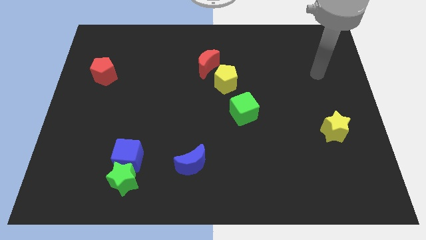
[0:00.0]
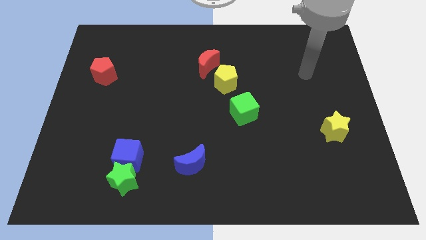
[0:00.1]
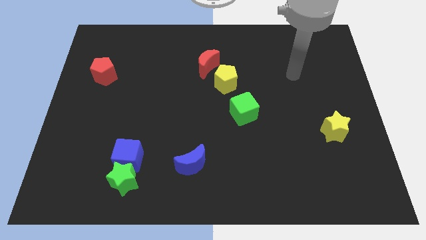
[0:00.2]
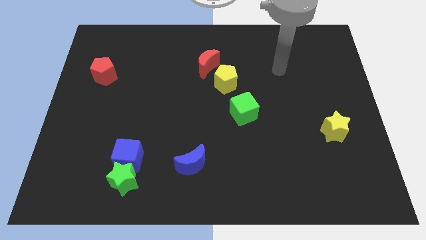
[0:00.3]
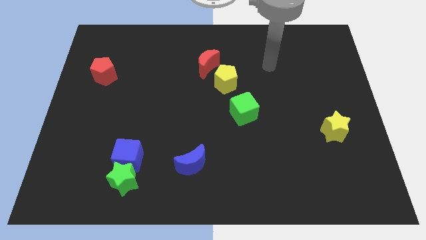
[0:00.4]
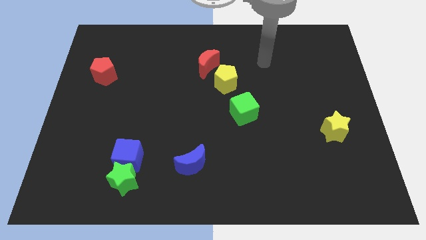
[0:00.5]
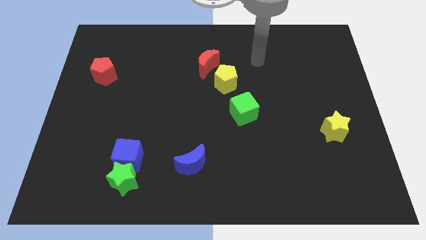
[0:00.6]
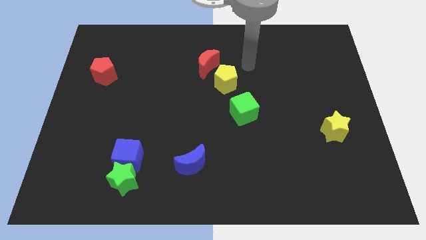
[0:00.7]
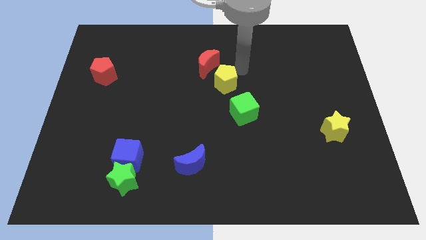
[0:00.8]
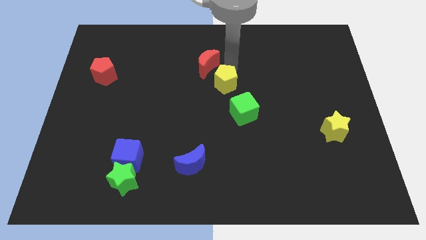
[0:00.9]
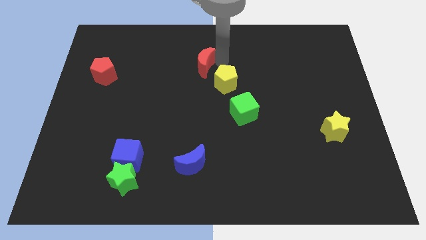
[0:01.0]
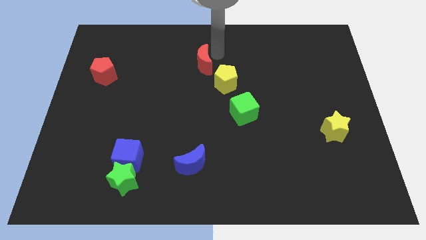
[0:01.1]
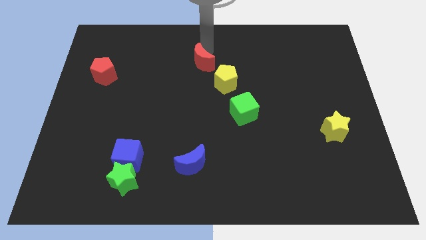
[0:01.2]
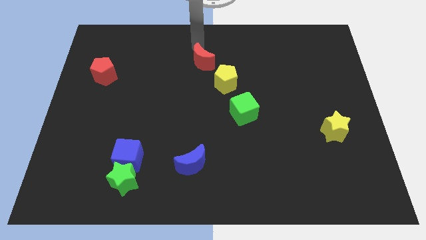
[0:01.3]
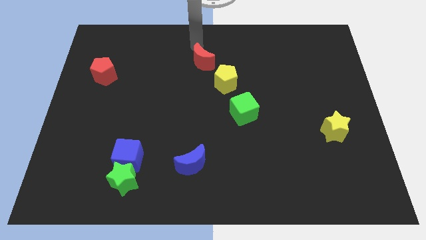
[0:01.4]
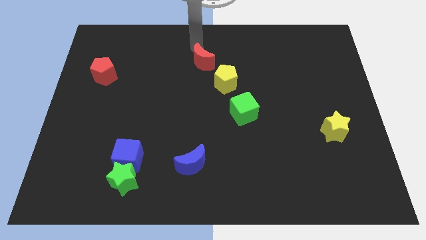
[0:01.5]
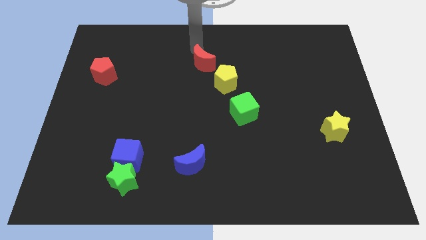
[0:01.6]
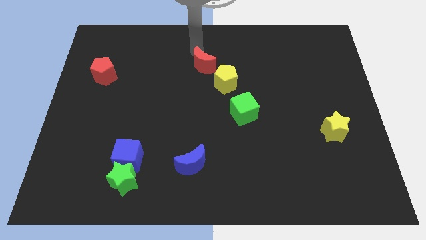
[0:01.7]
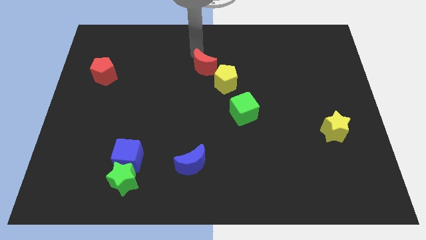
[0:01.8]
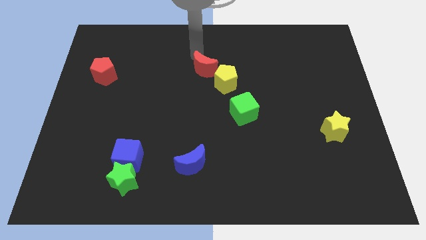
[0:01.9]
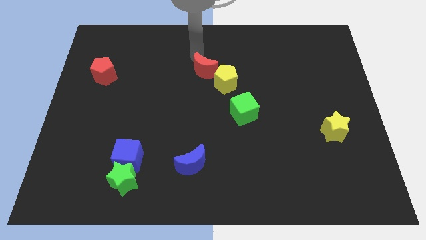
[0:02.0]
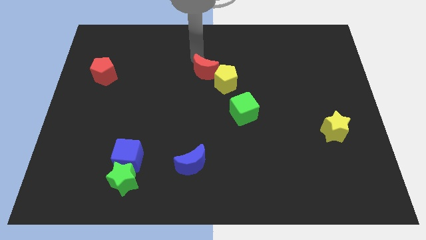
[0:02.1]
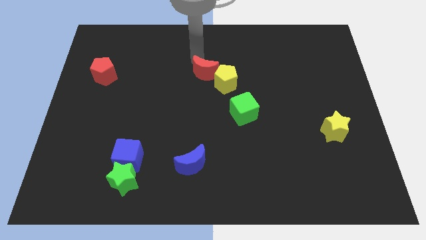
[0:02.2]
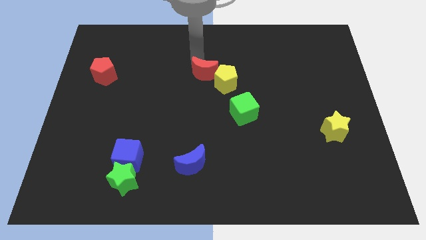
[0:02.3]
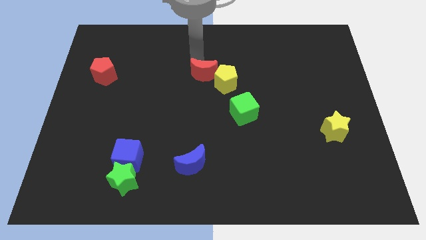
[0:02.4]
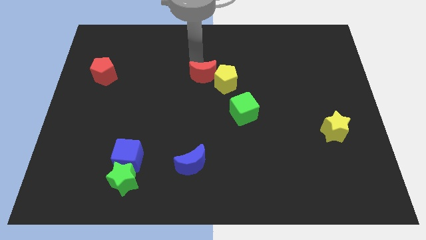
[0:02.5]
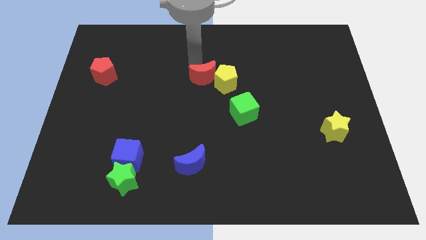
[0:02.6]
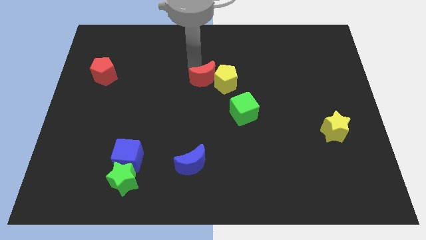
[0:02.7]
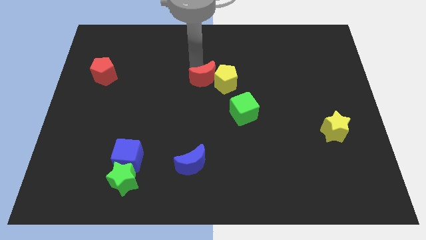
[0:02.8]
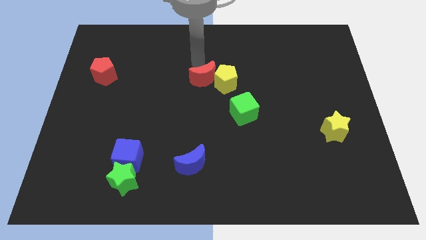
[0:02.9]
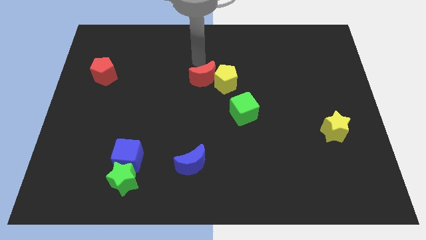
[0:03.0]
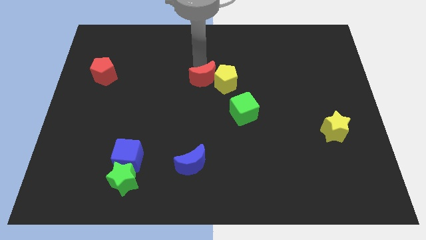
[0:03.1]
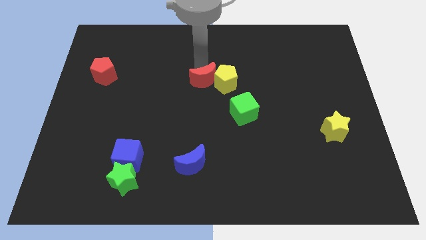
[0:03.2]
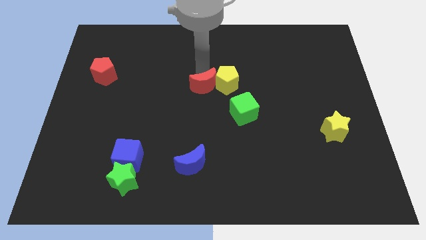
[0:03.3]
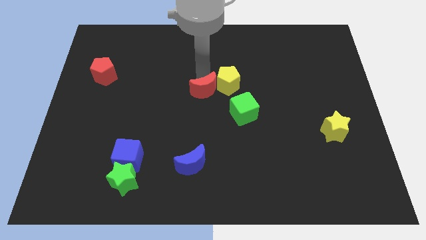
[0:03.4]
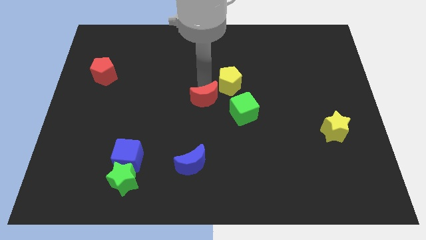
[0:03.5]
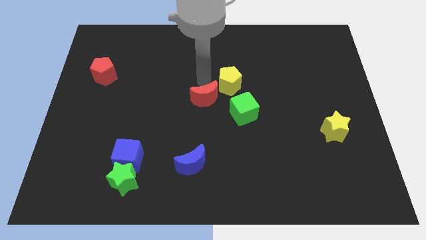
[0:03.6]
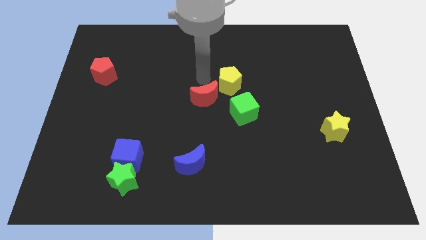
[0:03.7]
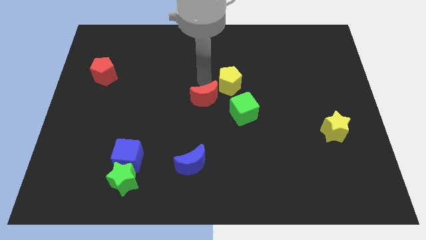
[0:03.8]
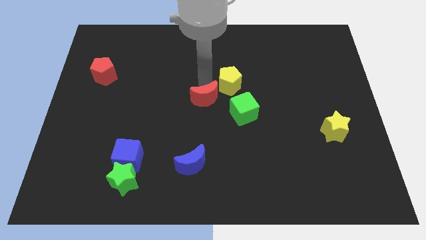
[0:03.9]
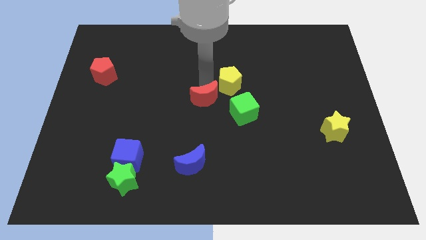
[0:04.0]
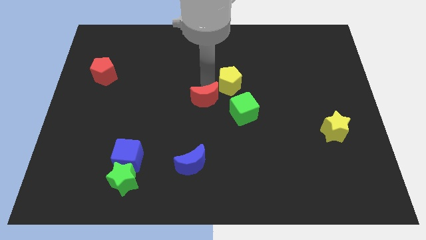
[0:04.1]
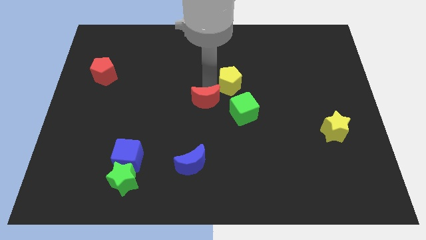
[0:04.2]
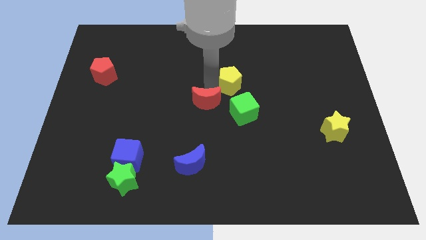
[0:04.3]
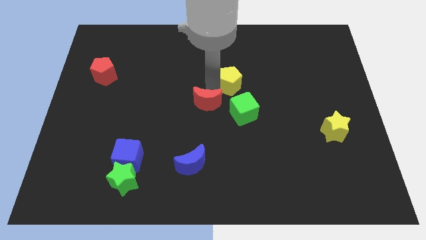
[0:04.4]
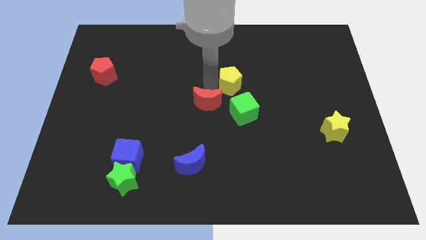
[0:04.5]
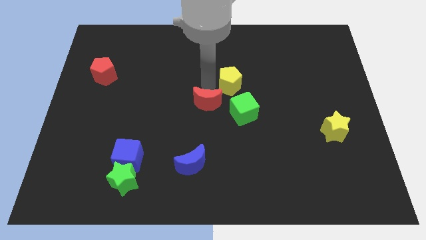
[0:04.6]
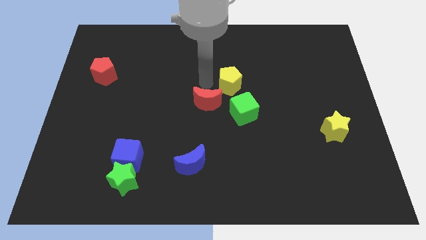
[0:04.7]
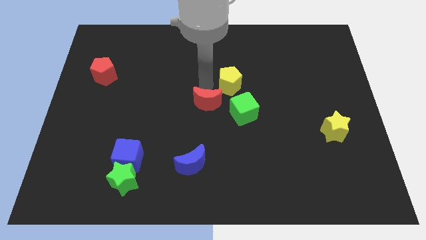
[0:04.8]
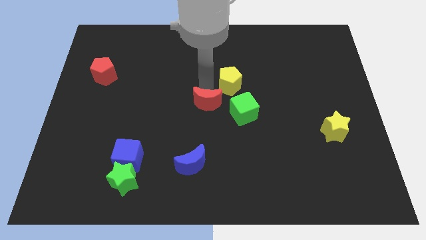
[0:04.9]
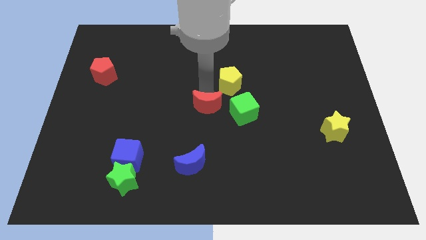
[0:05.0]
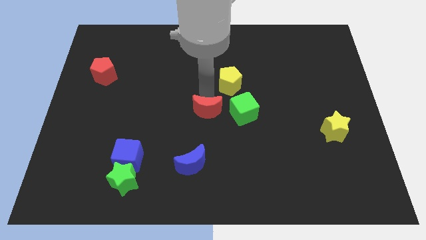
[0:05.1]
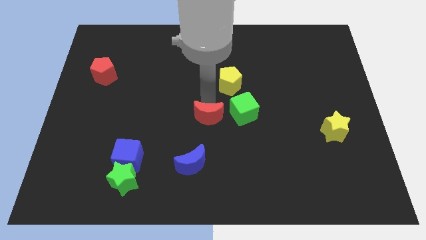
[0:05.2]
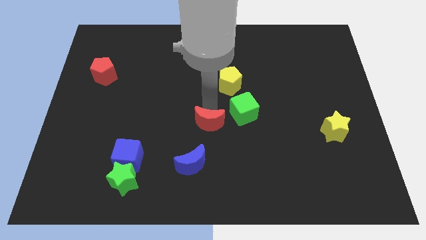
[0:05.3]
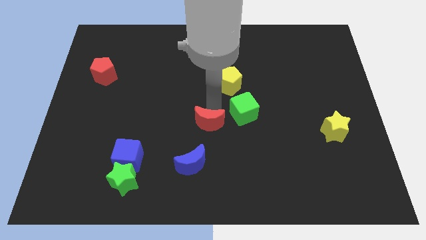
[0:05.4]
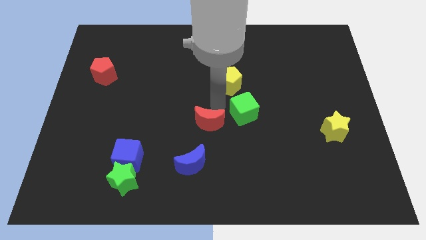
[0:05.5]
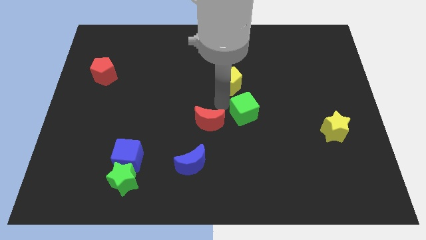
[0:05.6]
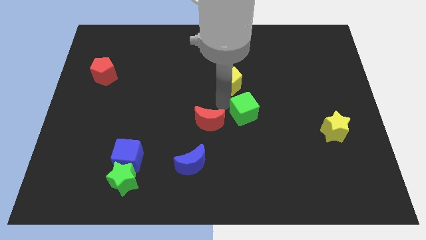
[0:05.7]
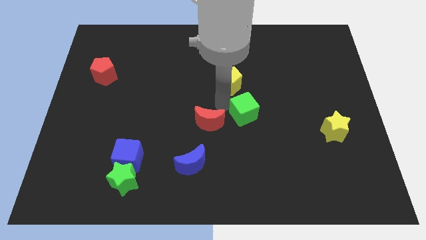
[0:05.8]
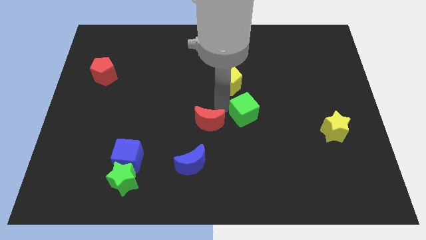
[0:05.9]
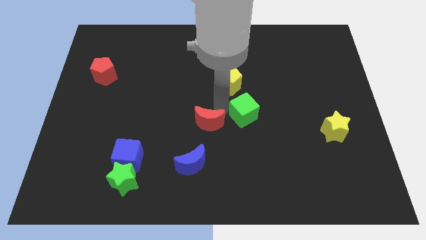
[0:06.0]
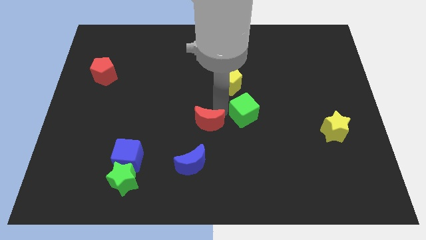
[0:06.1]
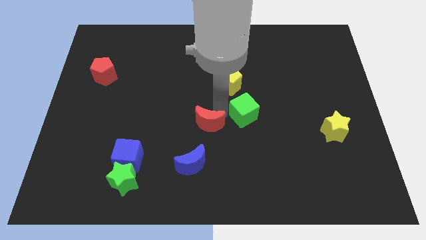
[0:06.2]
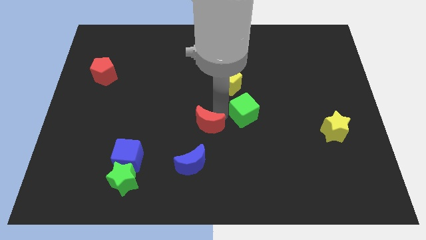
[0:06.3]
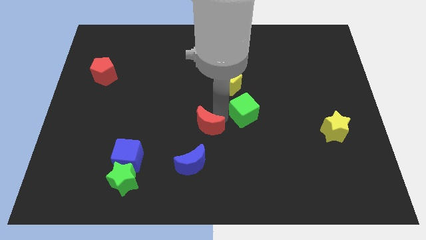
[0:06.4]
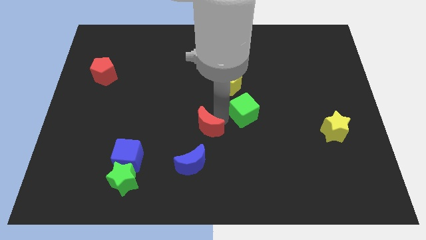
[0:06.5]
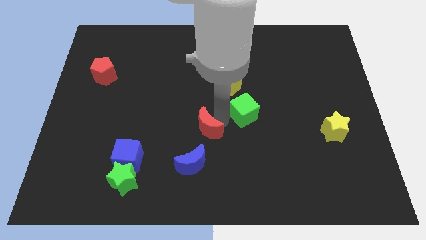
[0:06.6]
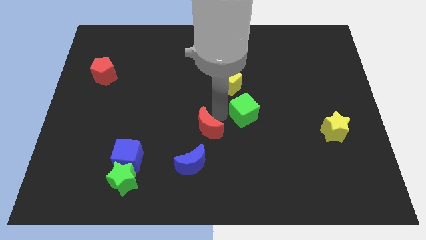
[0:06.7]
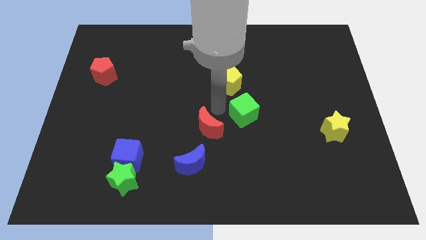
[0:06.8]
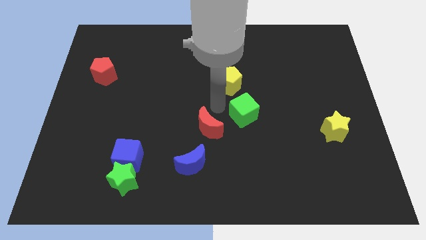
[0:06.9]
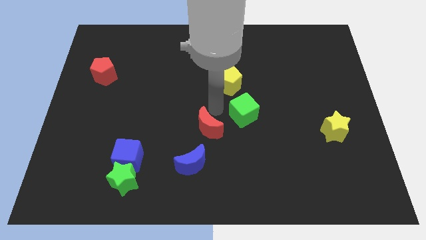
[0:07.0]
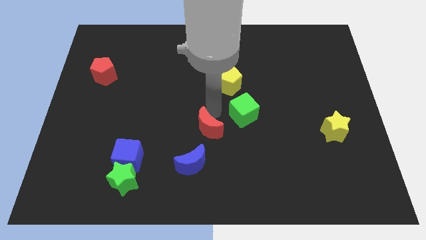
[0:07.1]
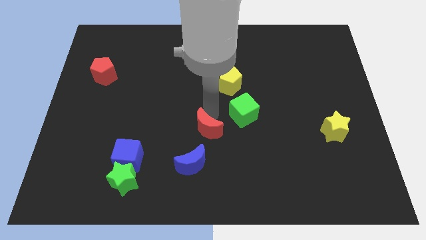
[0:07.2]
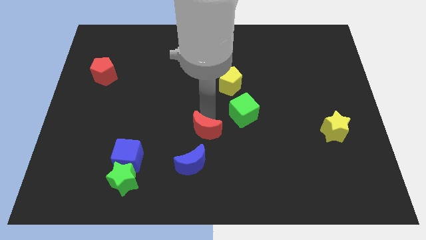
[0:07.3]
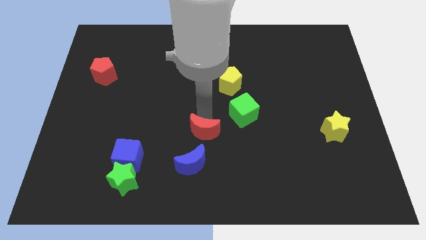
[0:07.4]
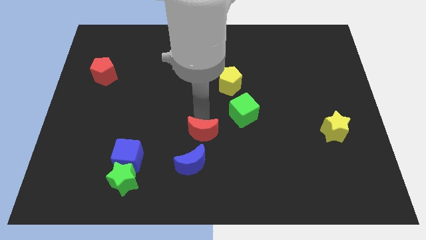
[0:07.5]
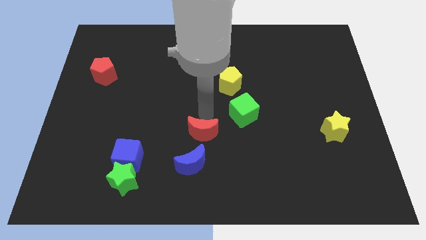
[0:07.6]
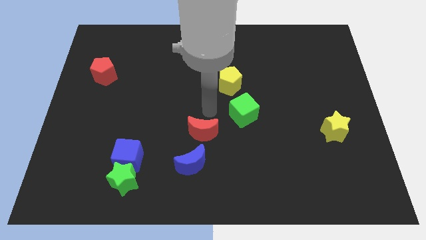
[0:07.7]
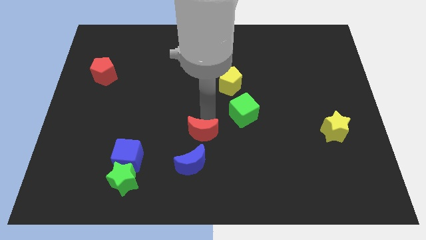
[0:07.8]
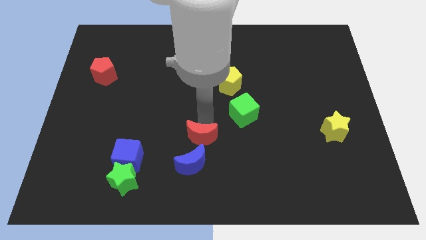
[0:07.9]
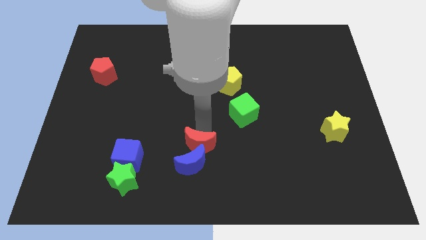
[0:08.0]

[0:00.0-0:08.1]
slide the red moon close to the blue moon

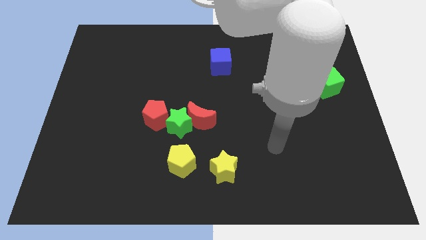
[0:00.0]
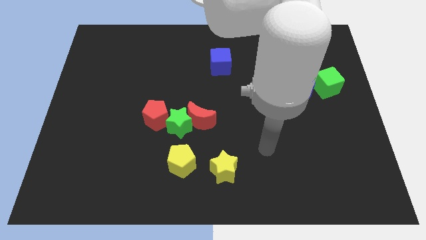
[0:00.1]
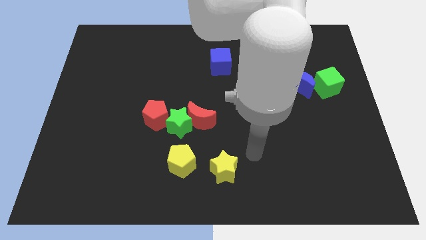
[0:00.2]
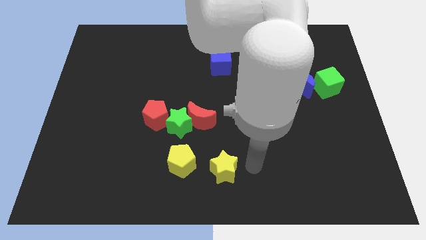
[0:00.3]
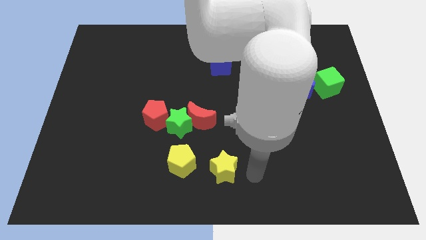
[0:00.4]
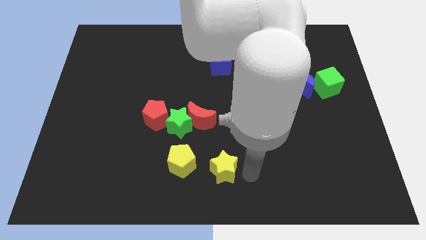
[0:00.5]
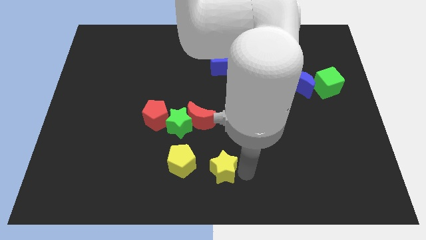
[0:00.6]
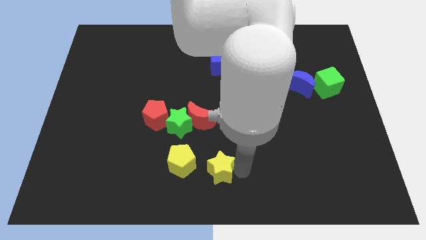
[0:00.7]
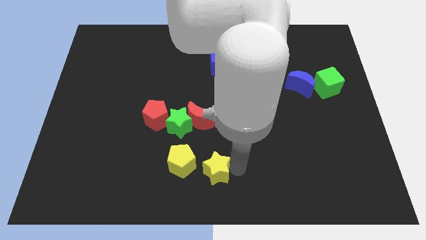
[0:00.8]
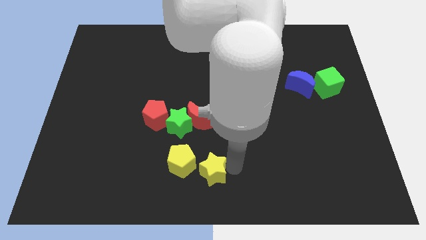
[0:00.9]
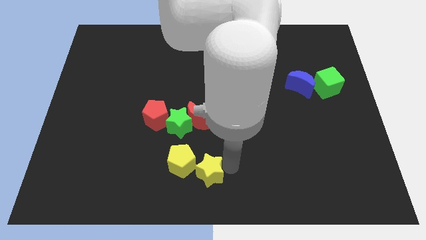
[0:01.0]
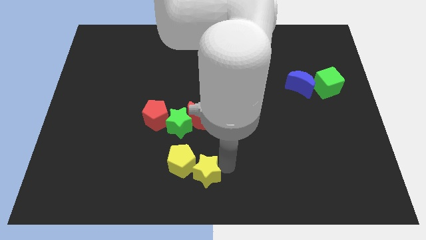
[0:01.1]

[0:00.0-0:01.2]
push the yellow star next to the yellow pentagon
